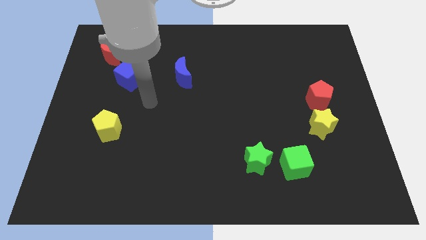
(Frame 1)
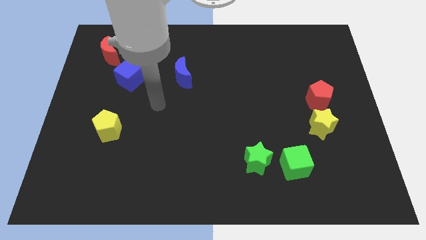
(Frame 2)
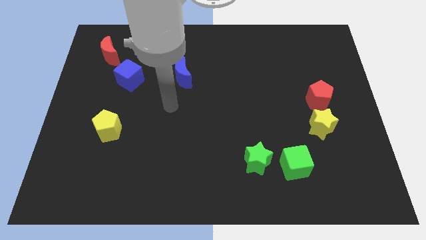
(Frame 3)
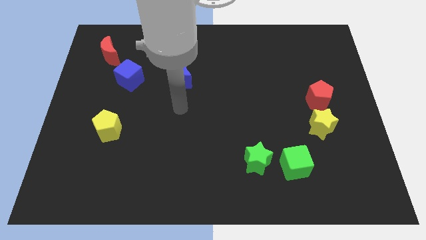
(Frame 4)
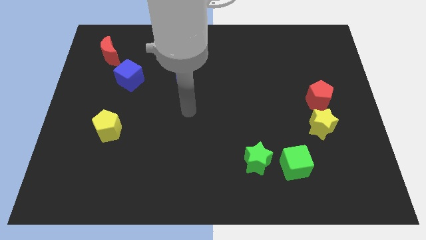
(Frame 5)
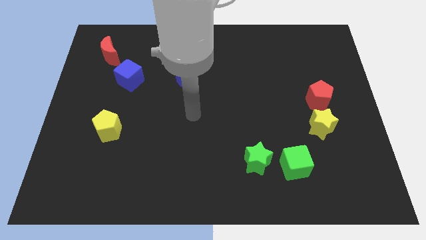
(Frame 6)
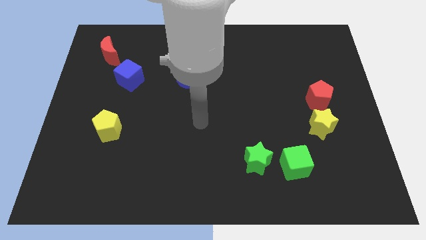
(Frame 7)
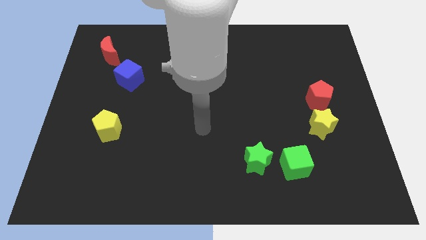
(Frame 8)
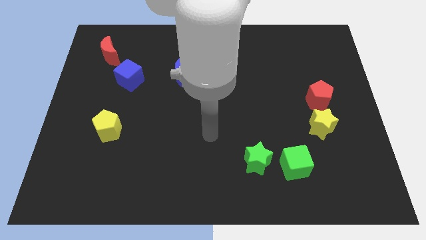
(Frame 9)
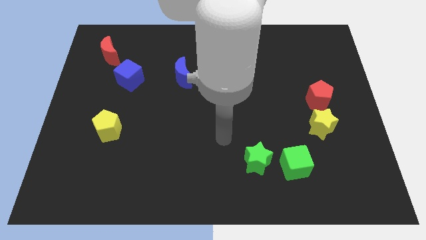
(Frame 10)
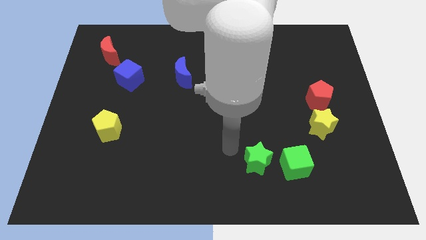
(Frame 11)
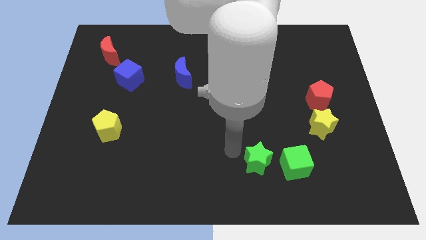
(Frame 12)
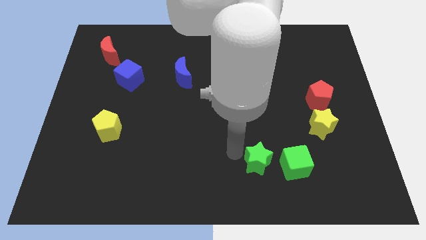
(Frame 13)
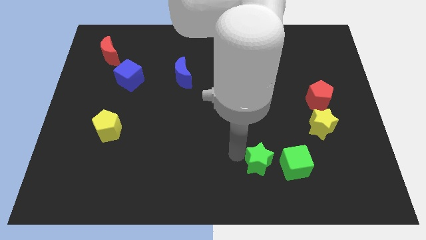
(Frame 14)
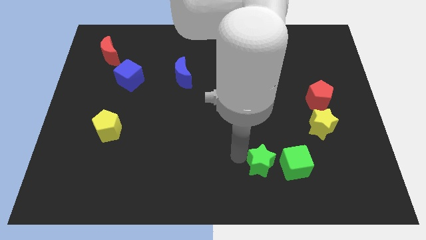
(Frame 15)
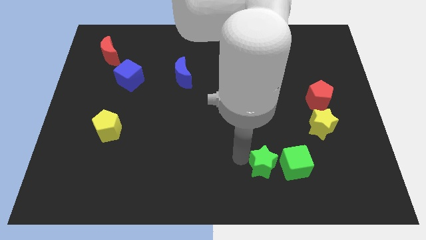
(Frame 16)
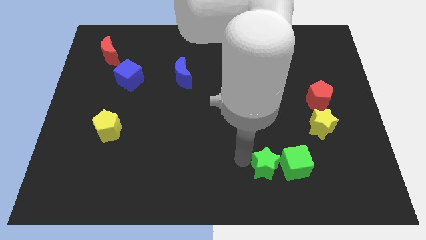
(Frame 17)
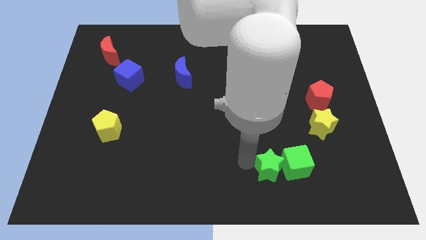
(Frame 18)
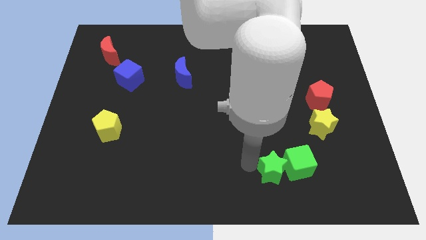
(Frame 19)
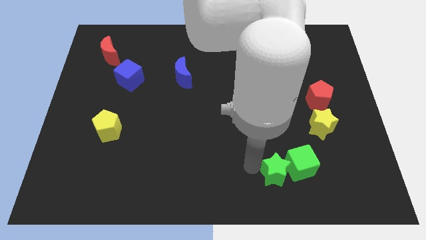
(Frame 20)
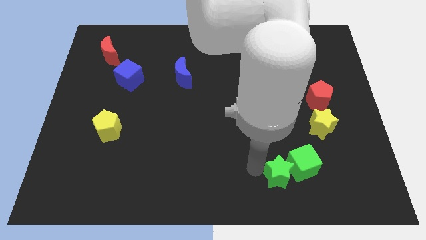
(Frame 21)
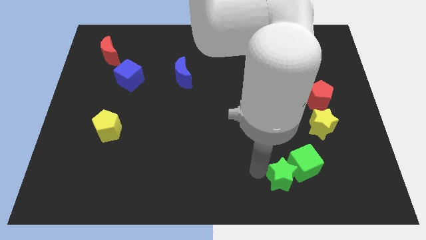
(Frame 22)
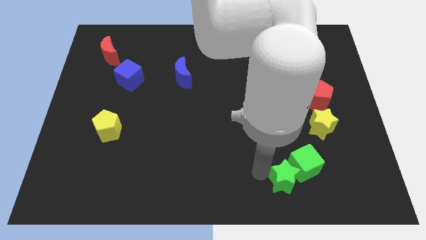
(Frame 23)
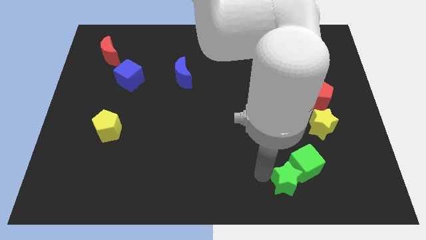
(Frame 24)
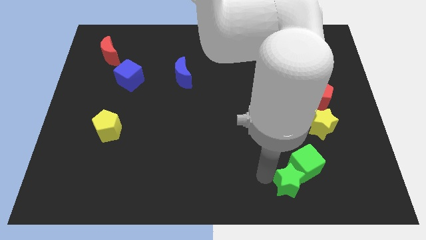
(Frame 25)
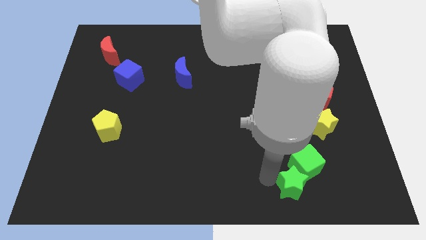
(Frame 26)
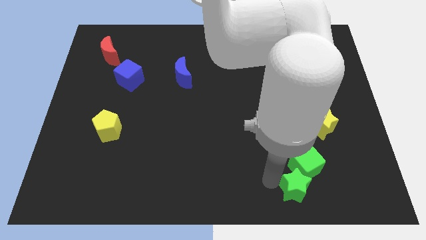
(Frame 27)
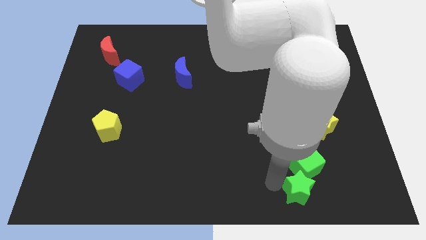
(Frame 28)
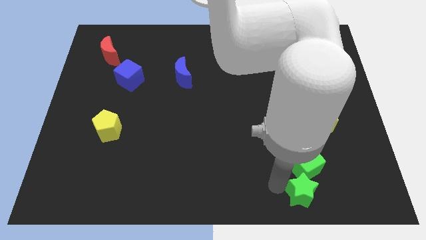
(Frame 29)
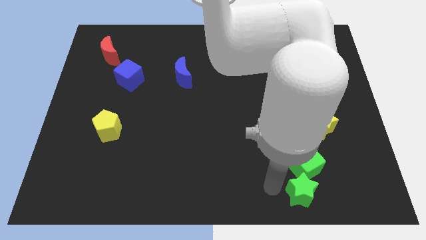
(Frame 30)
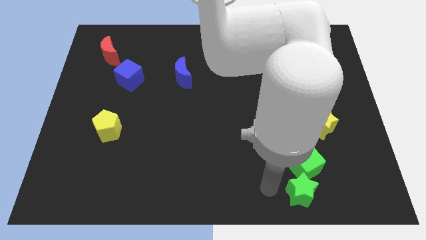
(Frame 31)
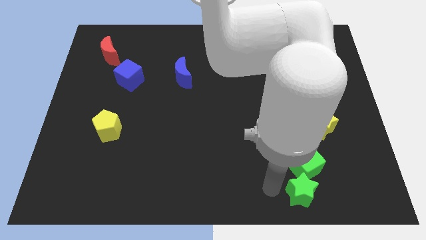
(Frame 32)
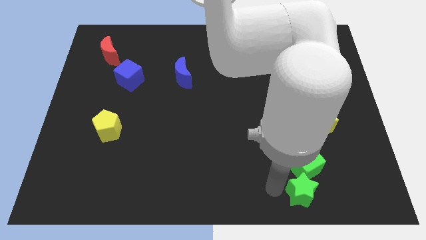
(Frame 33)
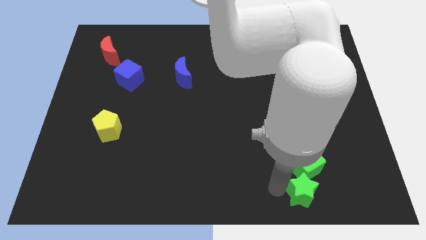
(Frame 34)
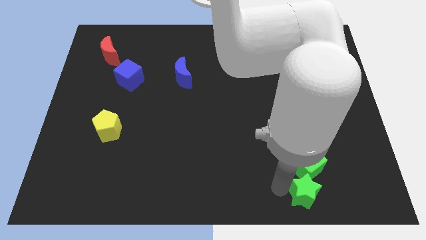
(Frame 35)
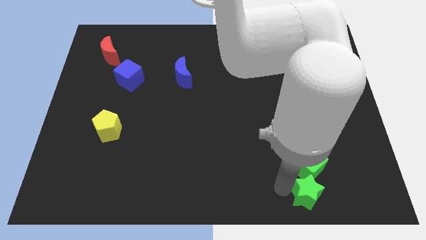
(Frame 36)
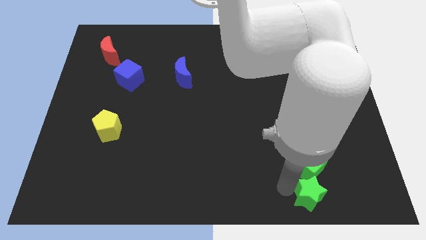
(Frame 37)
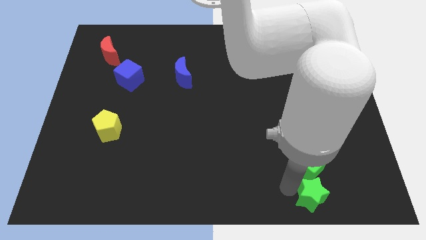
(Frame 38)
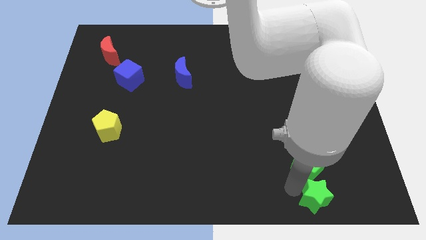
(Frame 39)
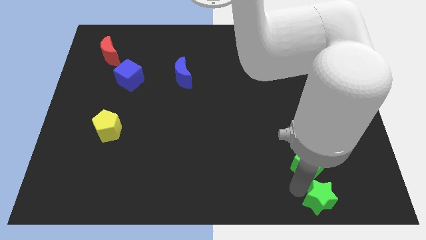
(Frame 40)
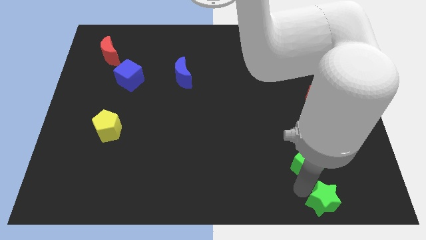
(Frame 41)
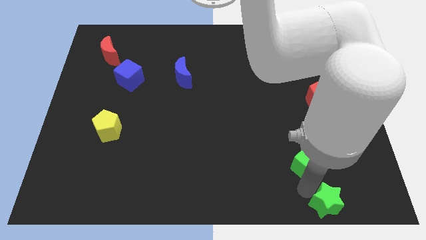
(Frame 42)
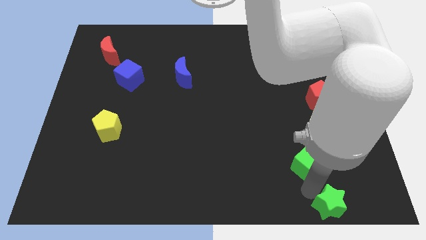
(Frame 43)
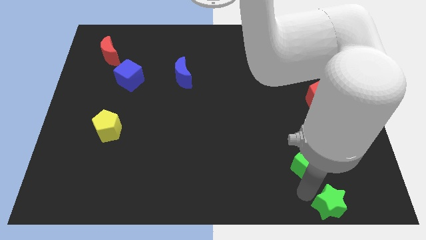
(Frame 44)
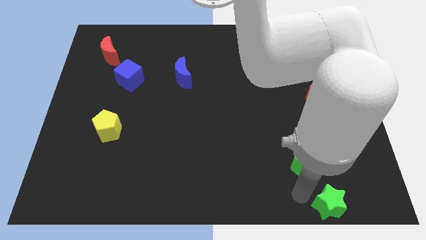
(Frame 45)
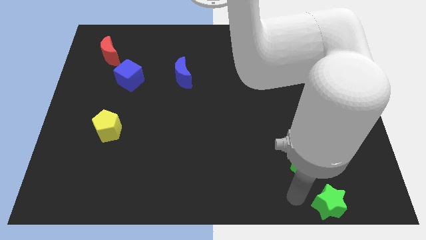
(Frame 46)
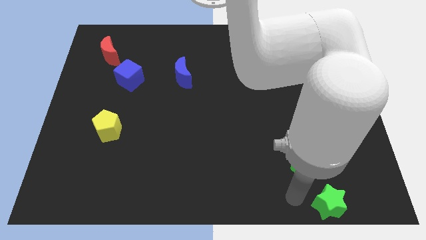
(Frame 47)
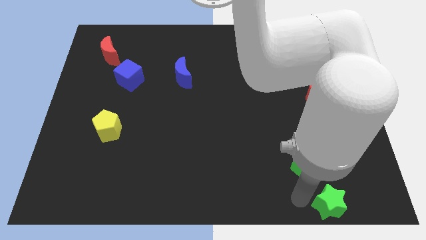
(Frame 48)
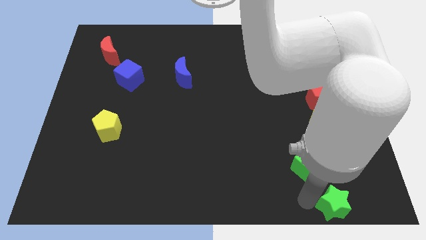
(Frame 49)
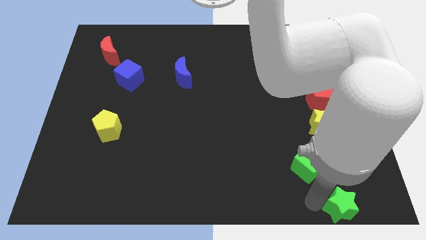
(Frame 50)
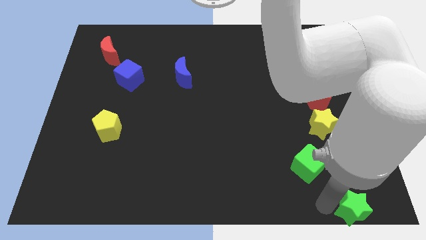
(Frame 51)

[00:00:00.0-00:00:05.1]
push the green star to the lower right corner

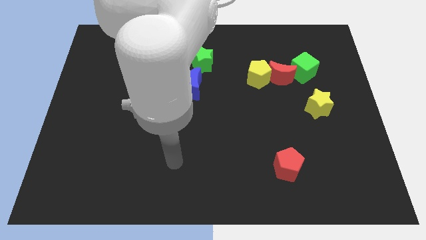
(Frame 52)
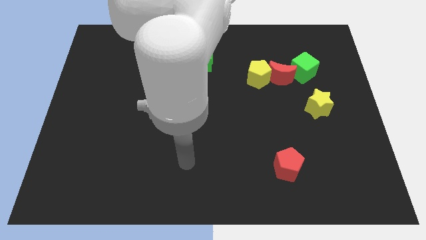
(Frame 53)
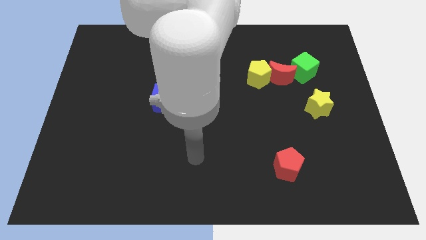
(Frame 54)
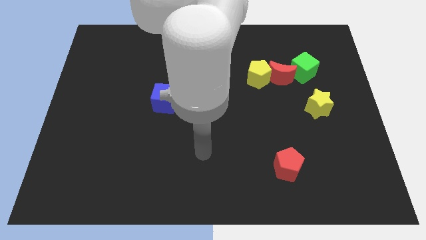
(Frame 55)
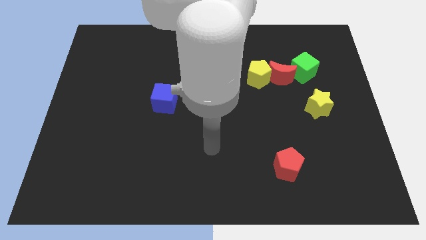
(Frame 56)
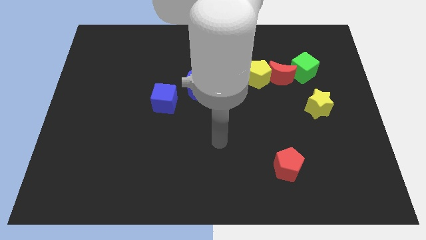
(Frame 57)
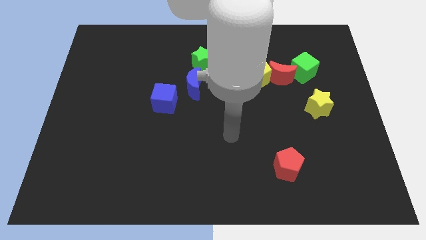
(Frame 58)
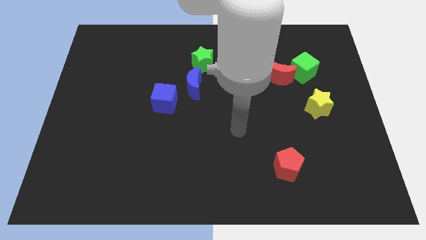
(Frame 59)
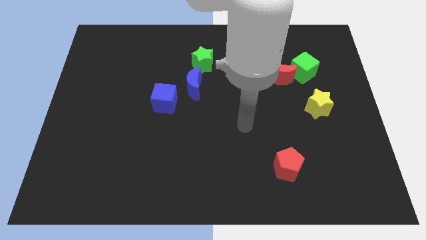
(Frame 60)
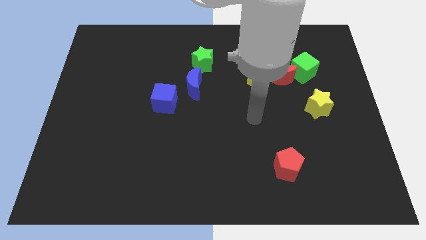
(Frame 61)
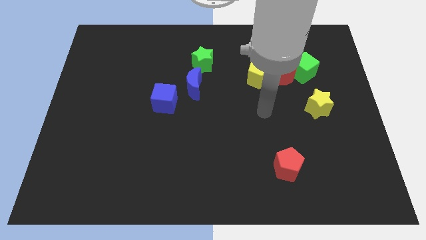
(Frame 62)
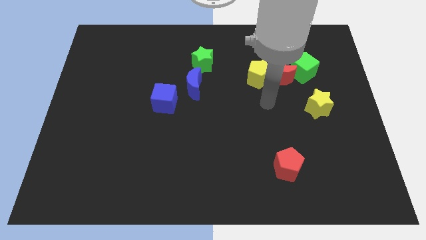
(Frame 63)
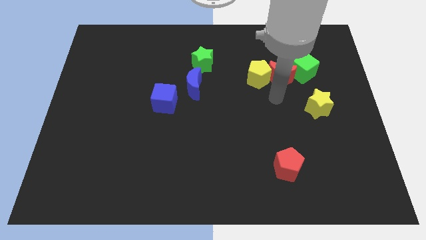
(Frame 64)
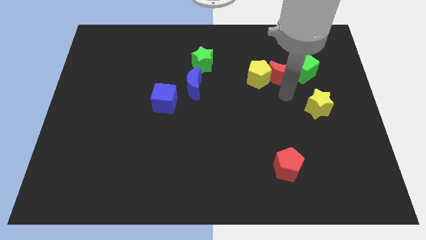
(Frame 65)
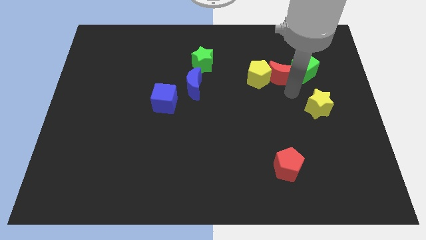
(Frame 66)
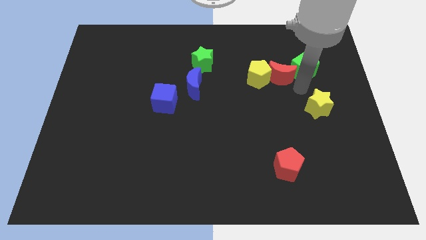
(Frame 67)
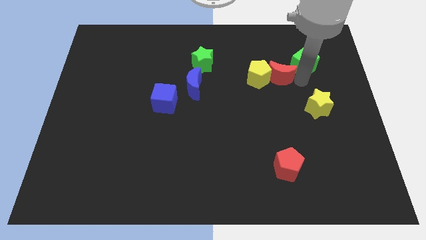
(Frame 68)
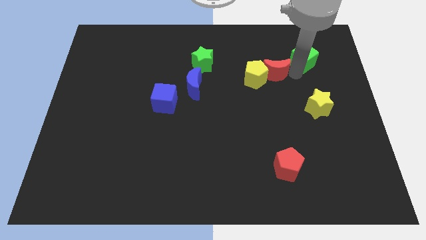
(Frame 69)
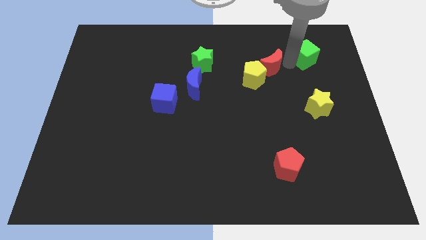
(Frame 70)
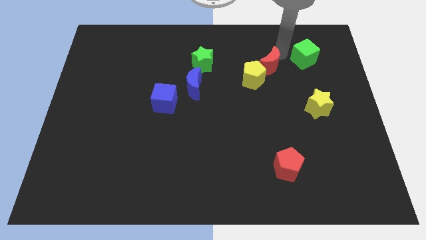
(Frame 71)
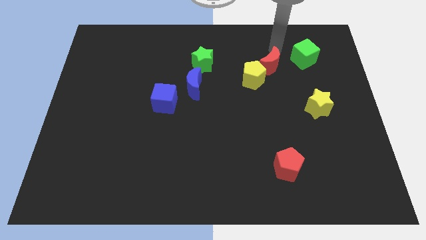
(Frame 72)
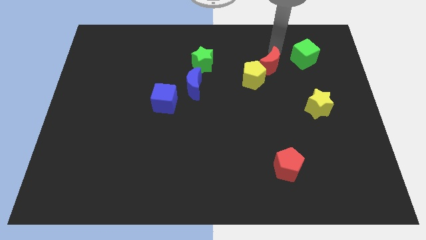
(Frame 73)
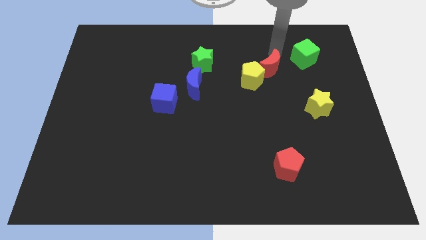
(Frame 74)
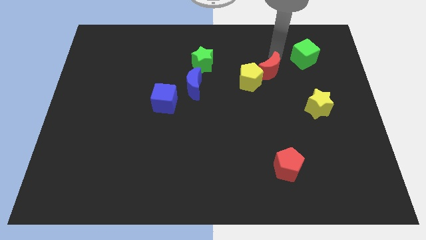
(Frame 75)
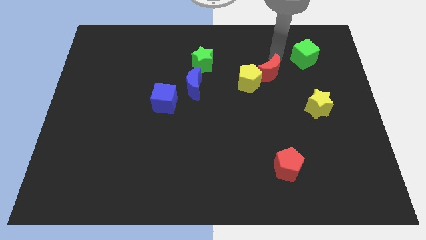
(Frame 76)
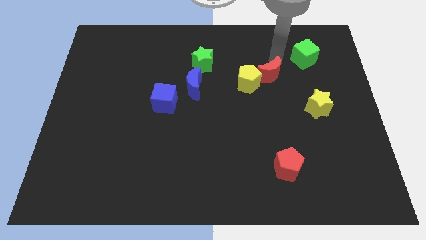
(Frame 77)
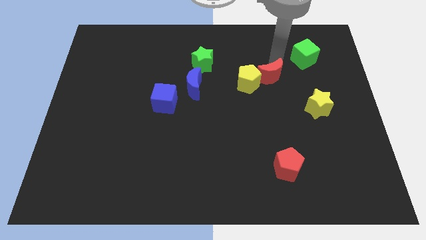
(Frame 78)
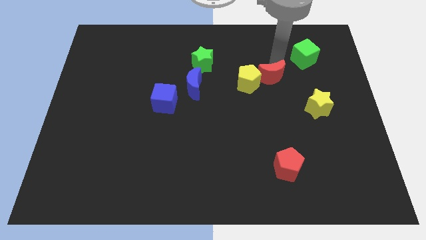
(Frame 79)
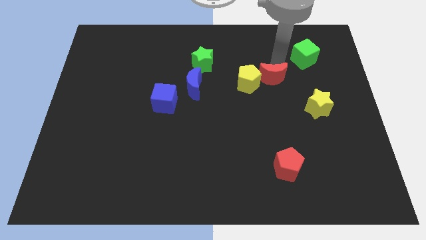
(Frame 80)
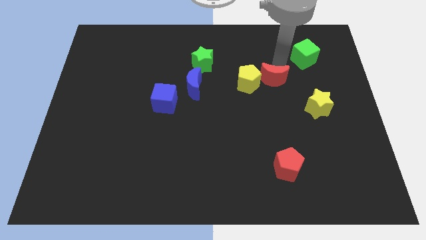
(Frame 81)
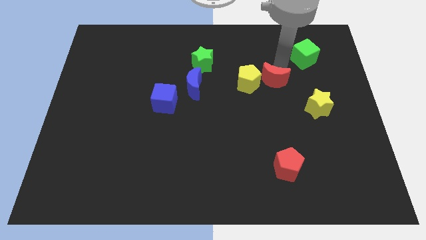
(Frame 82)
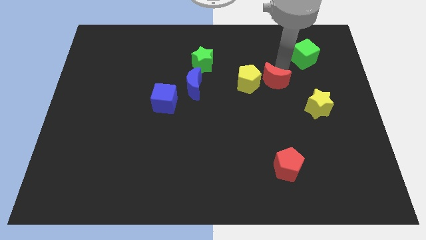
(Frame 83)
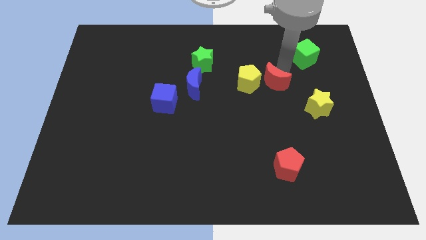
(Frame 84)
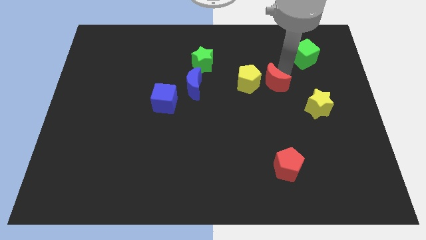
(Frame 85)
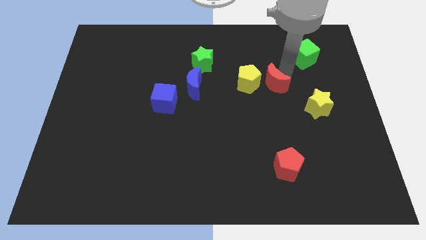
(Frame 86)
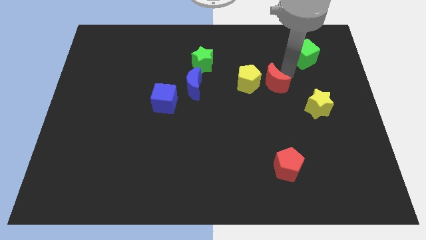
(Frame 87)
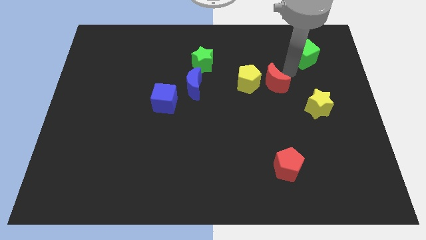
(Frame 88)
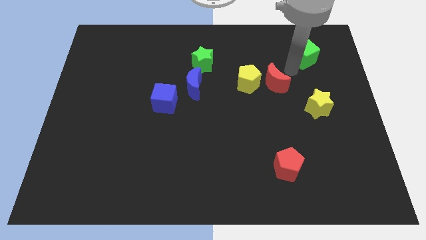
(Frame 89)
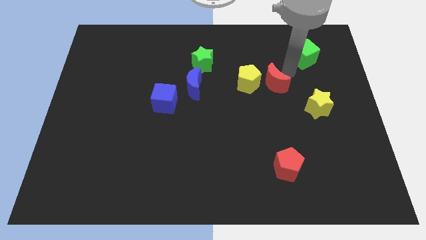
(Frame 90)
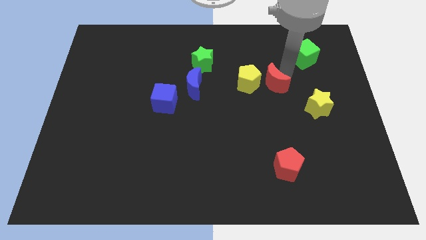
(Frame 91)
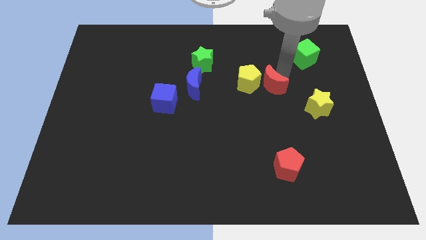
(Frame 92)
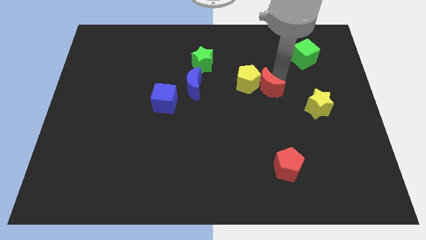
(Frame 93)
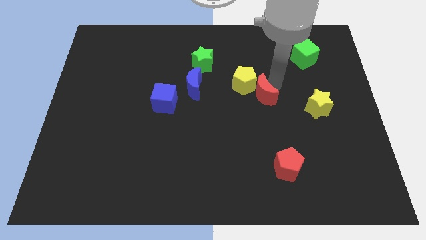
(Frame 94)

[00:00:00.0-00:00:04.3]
slide the red moon to the middle of the board
